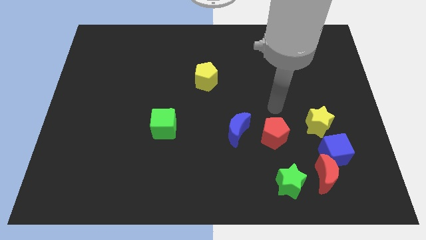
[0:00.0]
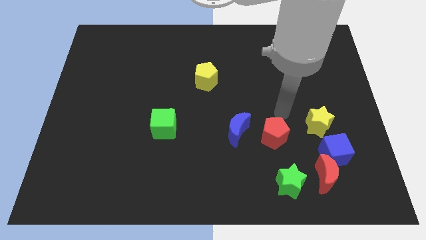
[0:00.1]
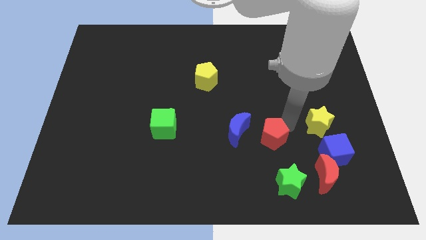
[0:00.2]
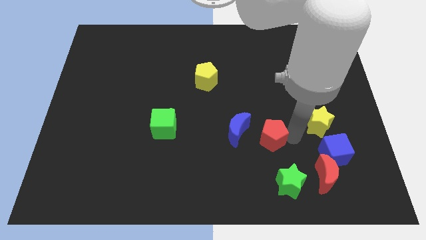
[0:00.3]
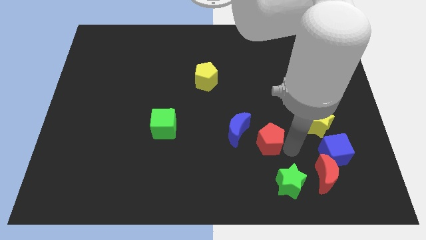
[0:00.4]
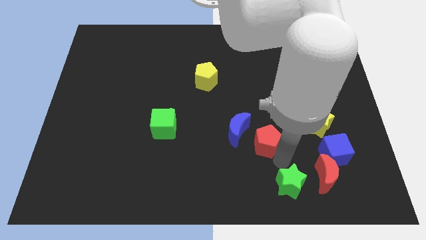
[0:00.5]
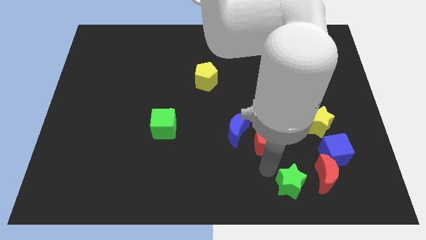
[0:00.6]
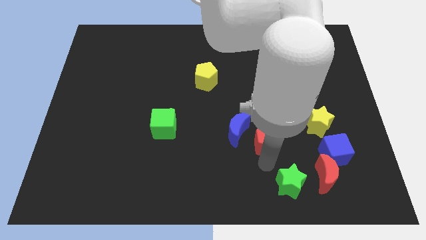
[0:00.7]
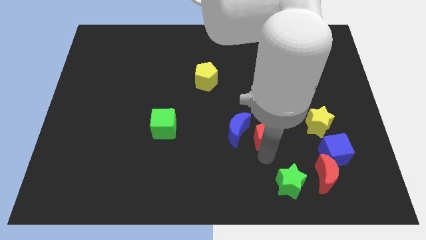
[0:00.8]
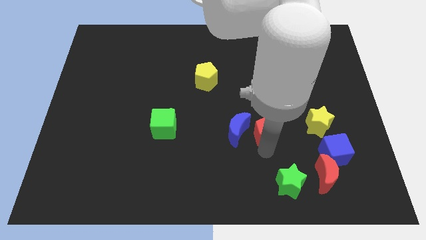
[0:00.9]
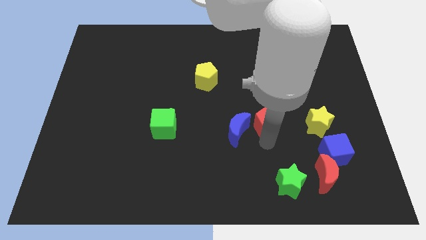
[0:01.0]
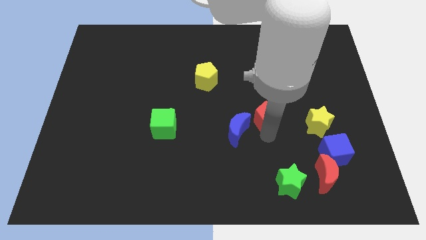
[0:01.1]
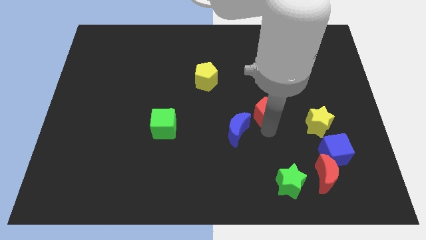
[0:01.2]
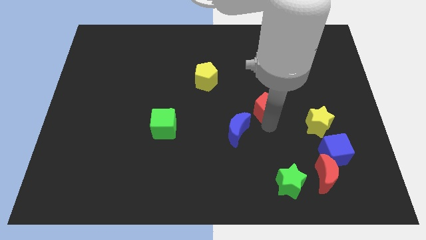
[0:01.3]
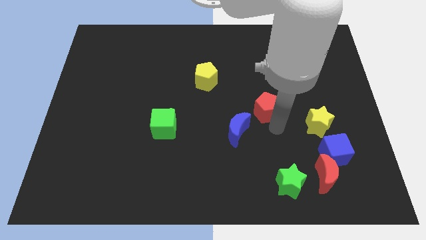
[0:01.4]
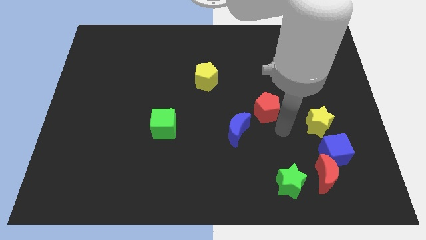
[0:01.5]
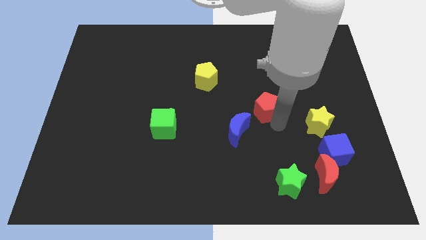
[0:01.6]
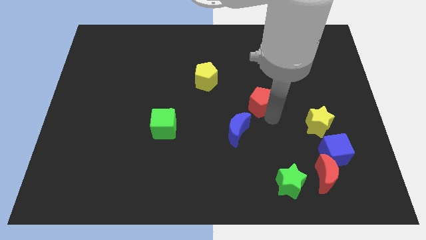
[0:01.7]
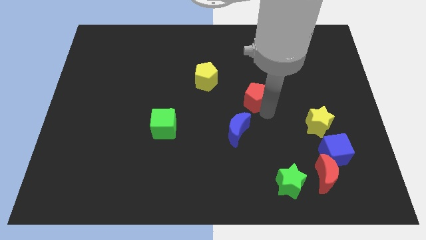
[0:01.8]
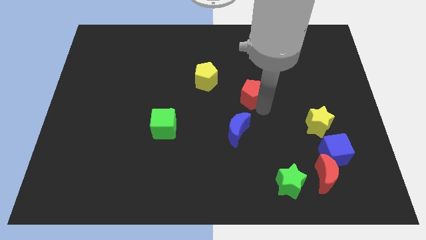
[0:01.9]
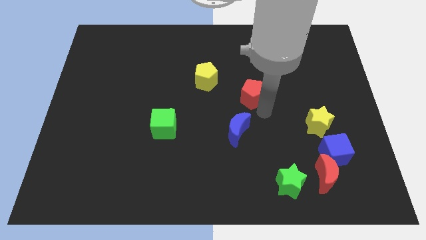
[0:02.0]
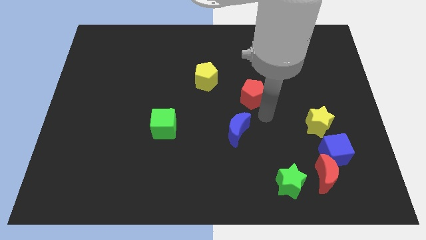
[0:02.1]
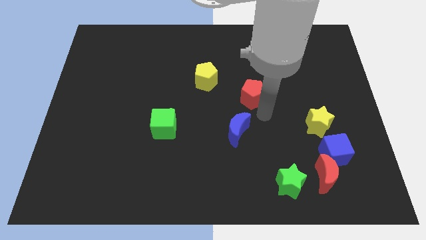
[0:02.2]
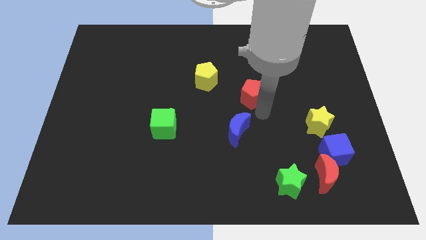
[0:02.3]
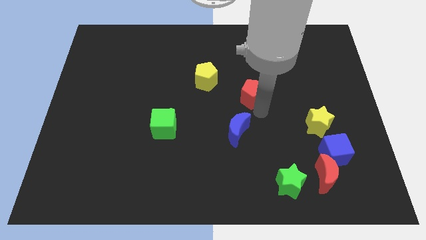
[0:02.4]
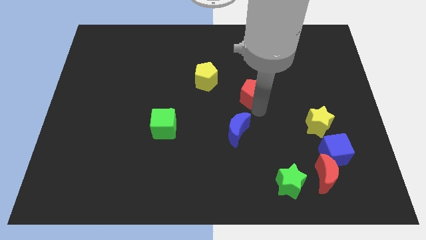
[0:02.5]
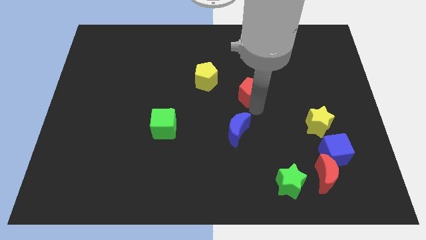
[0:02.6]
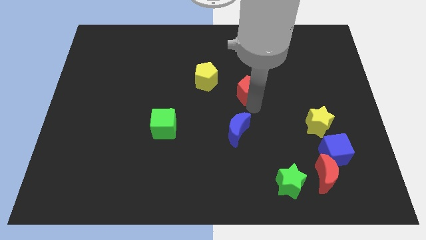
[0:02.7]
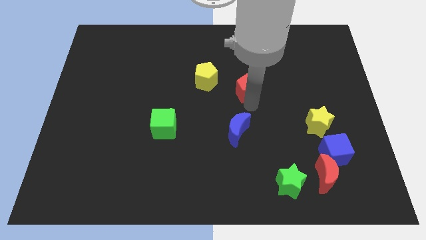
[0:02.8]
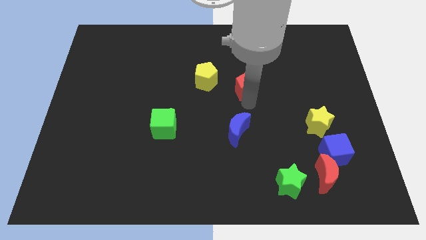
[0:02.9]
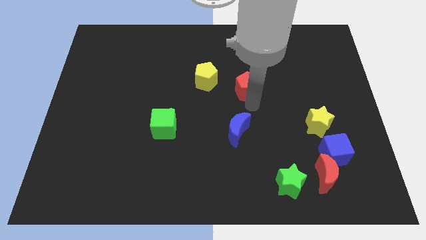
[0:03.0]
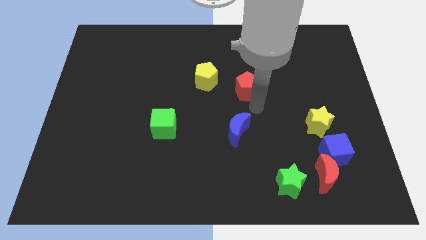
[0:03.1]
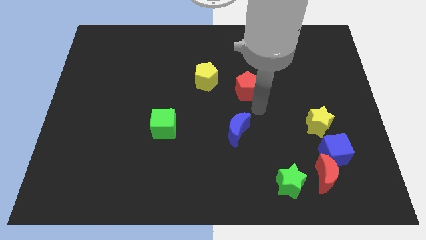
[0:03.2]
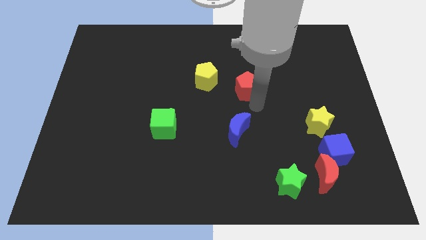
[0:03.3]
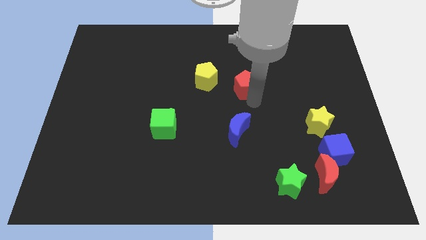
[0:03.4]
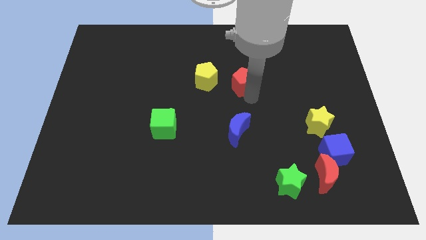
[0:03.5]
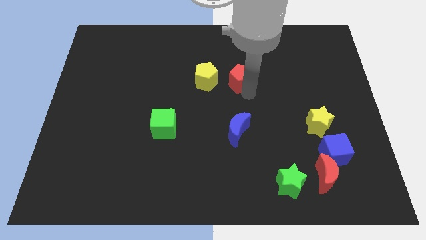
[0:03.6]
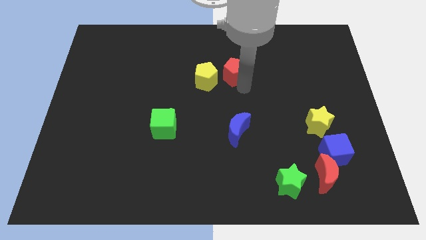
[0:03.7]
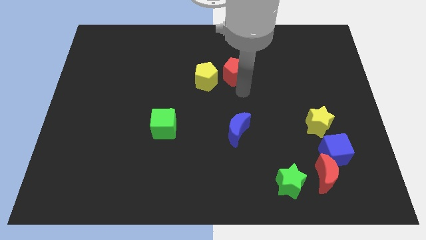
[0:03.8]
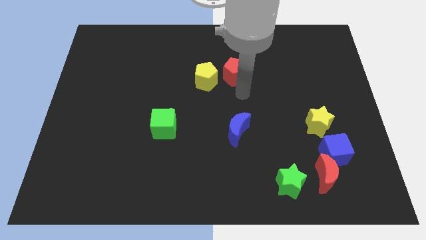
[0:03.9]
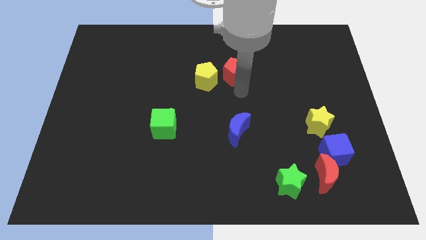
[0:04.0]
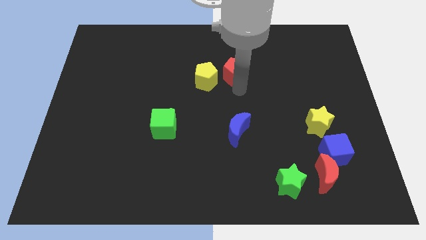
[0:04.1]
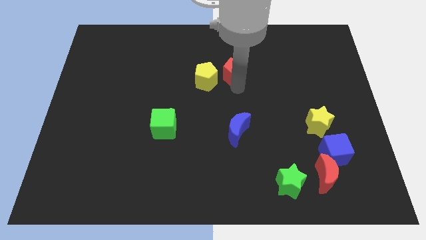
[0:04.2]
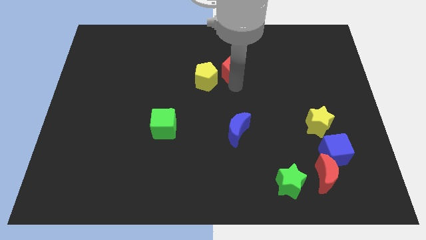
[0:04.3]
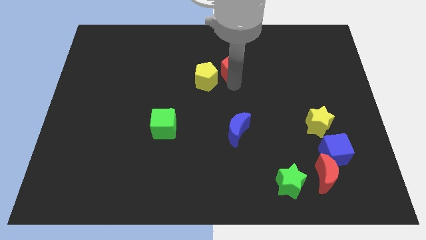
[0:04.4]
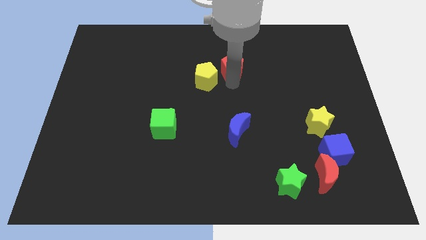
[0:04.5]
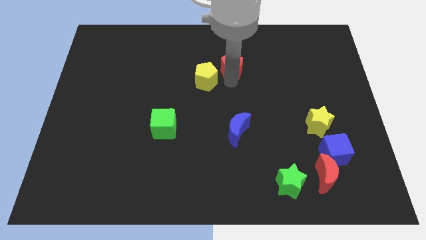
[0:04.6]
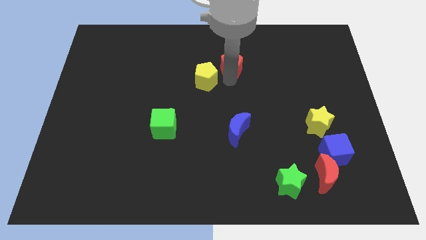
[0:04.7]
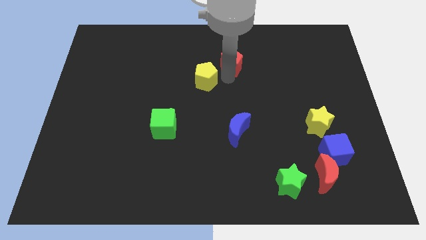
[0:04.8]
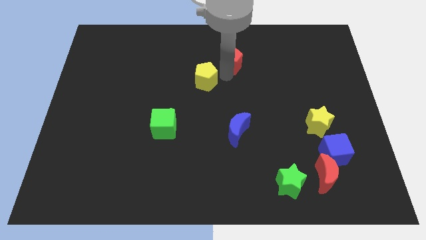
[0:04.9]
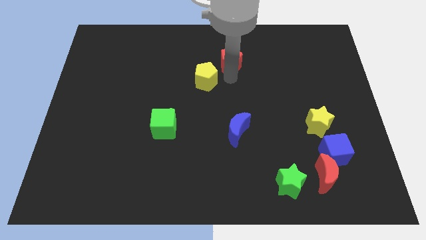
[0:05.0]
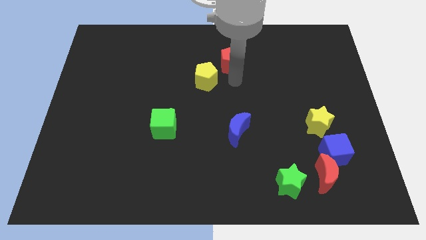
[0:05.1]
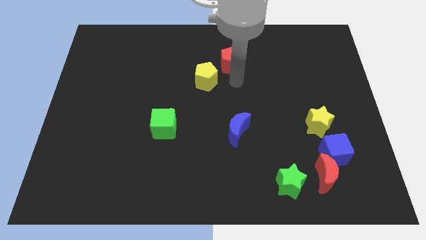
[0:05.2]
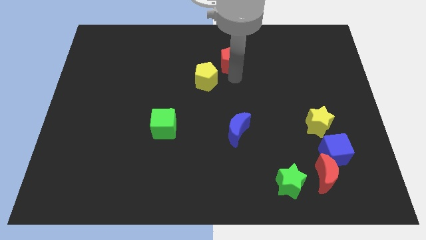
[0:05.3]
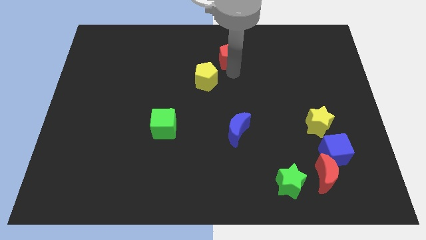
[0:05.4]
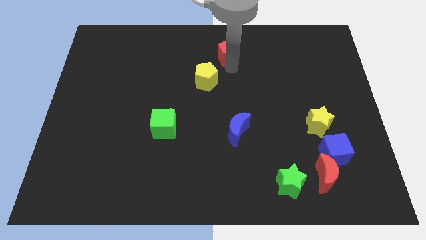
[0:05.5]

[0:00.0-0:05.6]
move the red pentagon to the towards your base
